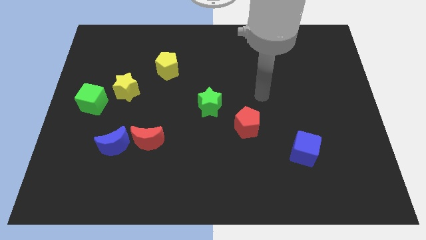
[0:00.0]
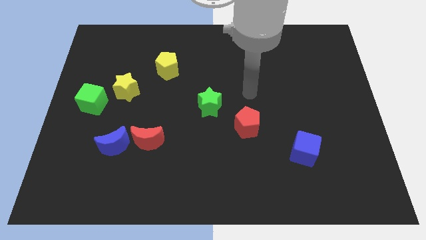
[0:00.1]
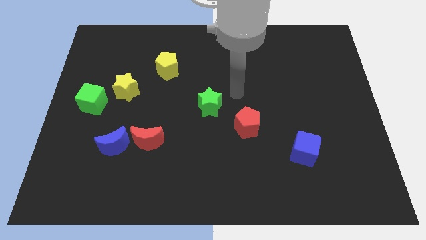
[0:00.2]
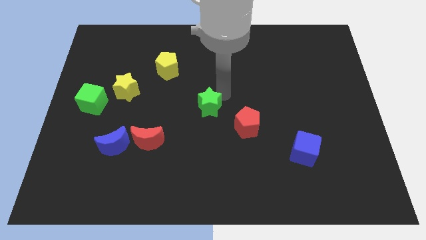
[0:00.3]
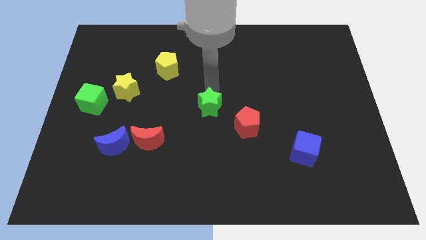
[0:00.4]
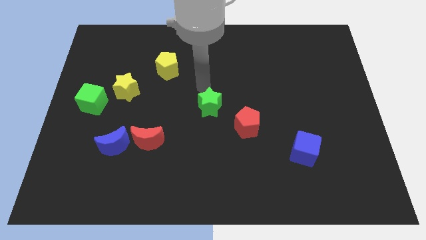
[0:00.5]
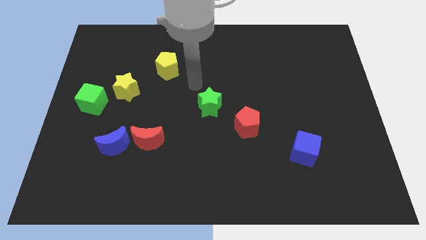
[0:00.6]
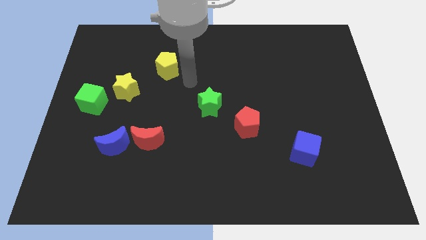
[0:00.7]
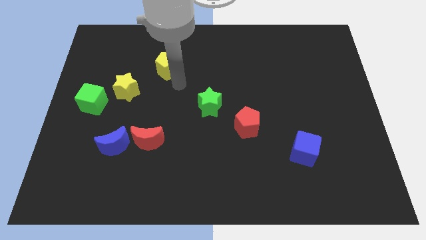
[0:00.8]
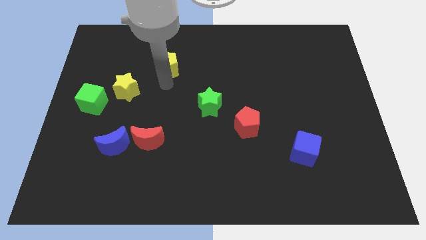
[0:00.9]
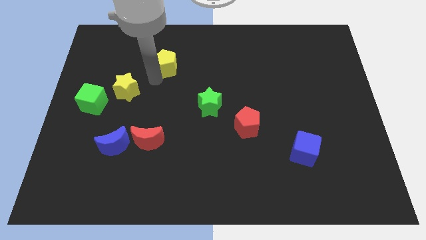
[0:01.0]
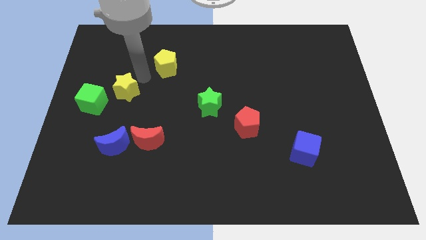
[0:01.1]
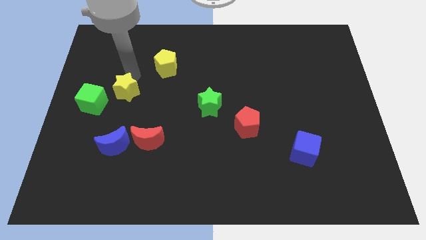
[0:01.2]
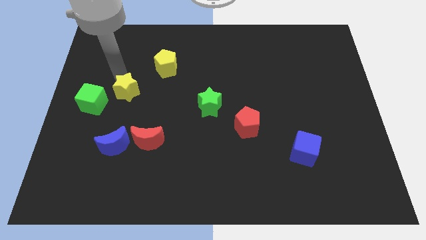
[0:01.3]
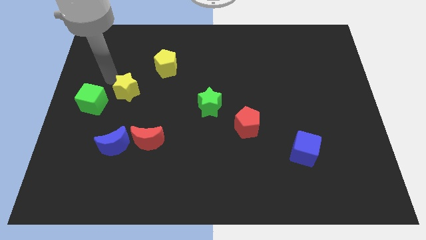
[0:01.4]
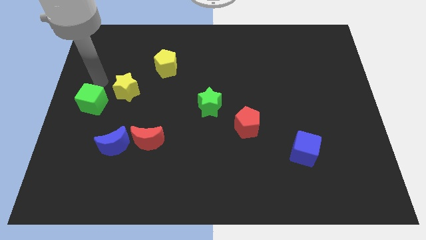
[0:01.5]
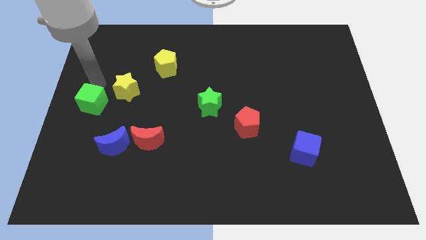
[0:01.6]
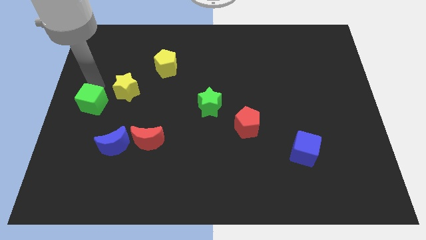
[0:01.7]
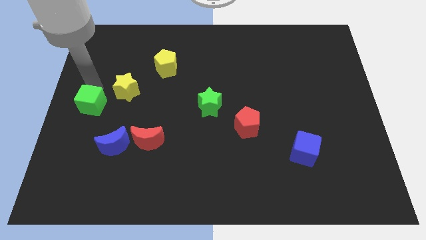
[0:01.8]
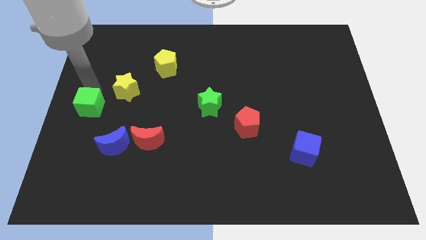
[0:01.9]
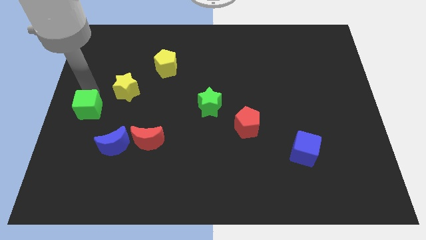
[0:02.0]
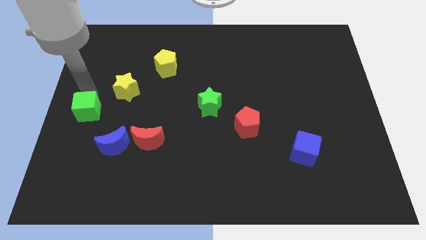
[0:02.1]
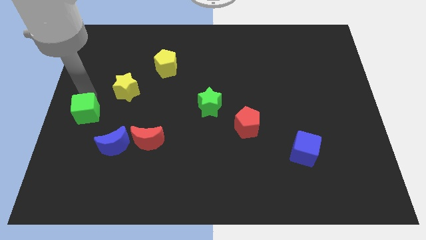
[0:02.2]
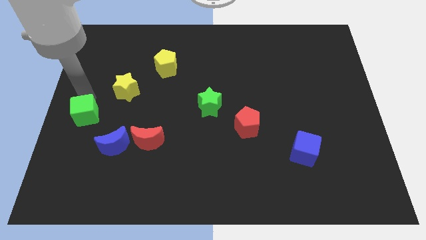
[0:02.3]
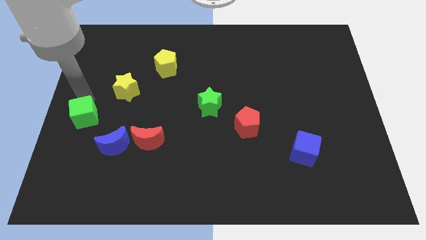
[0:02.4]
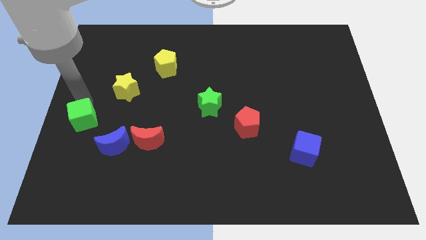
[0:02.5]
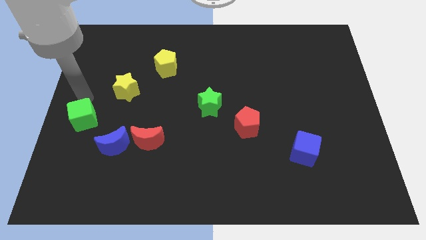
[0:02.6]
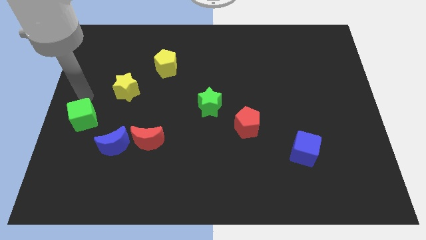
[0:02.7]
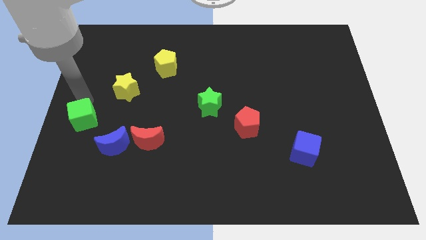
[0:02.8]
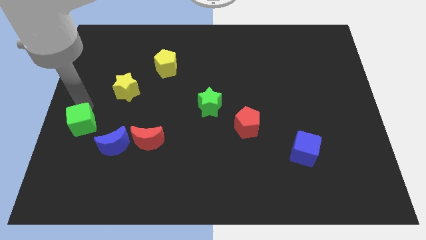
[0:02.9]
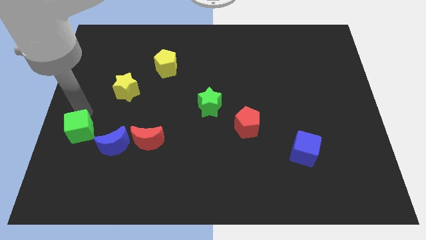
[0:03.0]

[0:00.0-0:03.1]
slightly slide the green cube downwards

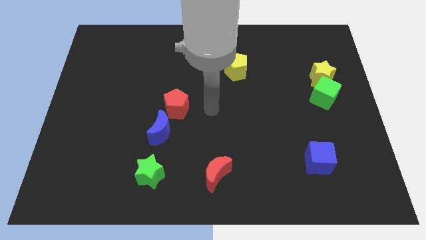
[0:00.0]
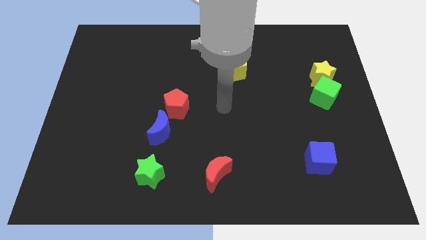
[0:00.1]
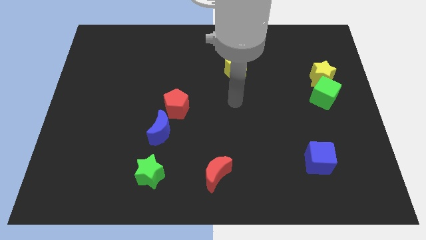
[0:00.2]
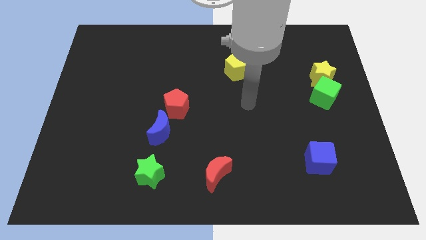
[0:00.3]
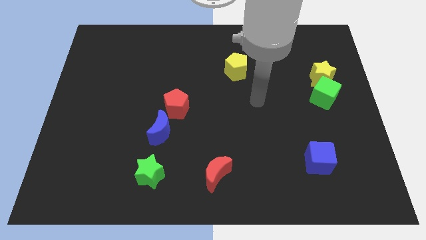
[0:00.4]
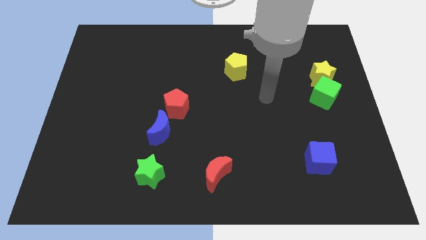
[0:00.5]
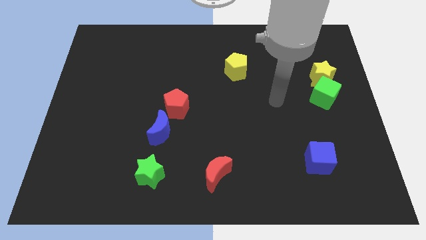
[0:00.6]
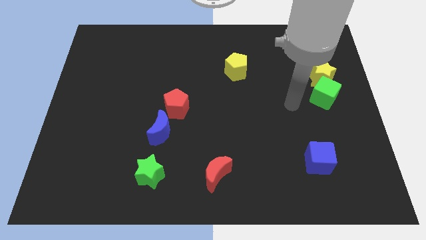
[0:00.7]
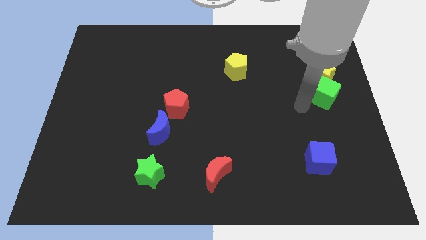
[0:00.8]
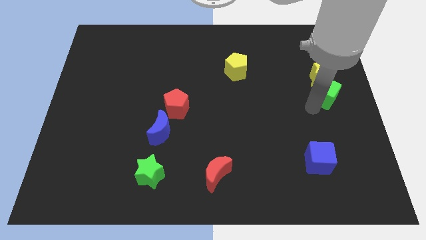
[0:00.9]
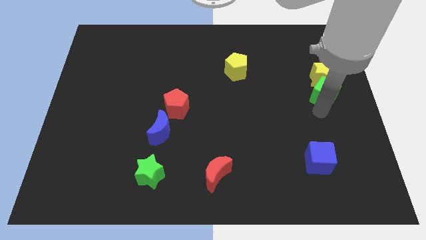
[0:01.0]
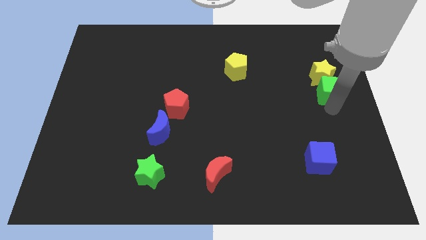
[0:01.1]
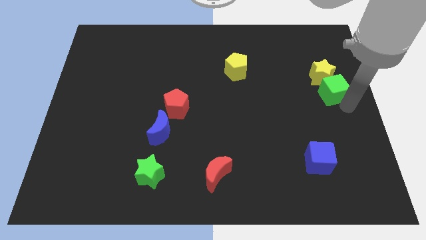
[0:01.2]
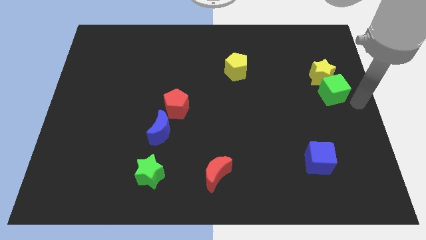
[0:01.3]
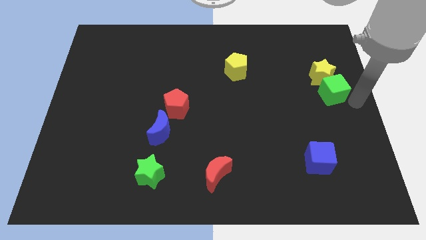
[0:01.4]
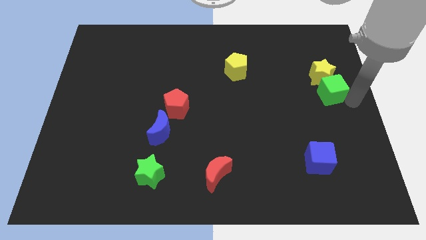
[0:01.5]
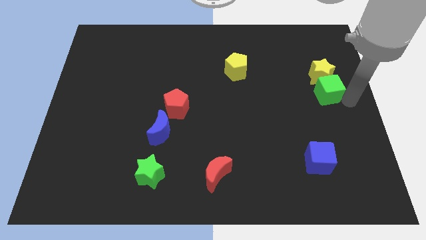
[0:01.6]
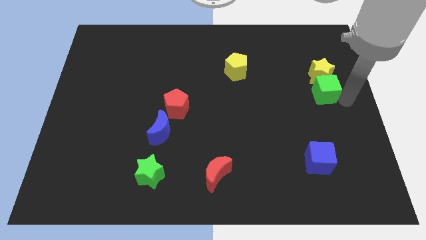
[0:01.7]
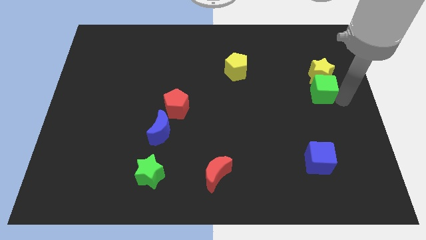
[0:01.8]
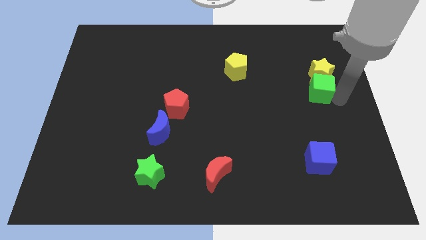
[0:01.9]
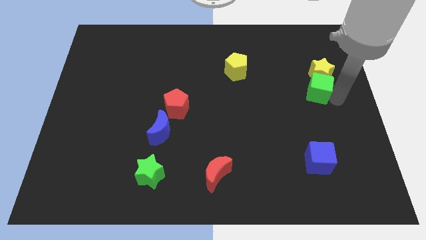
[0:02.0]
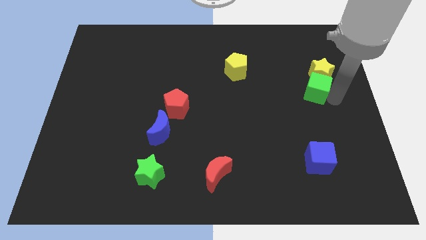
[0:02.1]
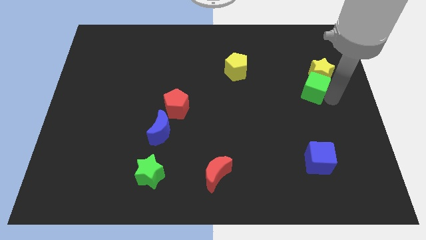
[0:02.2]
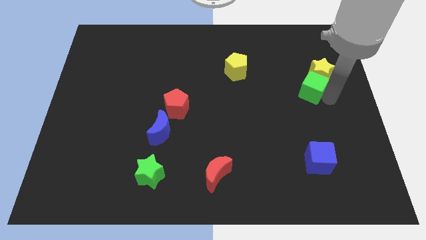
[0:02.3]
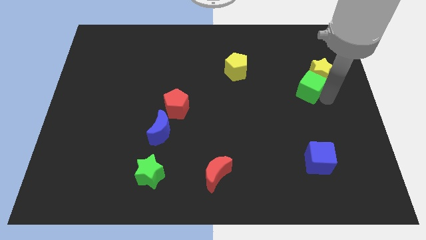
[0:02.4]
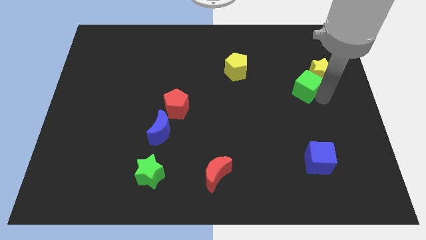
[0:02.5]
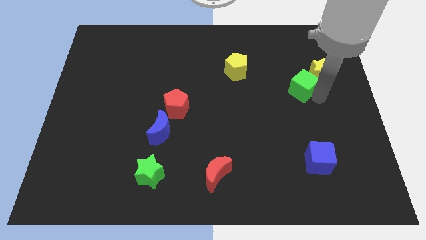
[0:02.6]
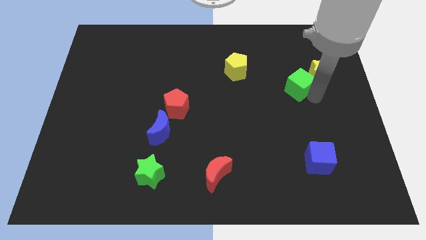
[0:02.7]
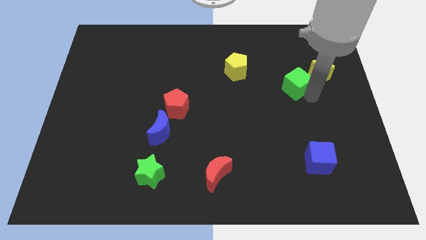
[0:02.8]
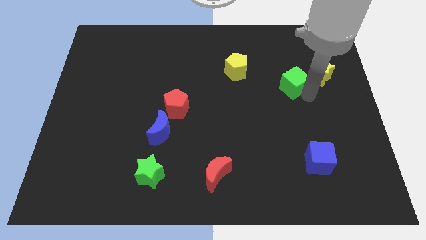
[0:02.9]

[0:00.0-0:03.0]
slide the green cube somewhat upwards and left

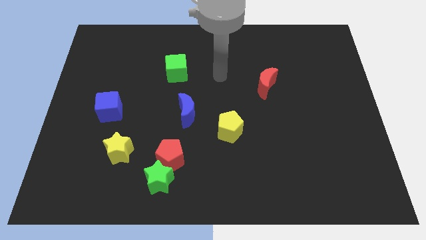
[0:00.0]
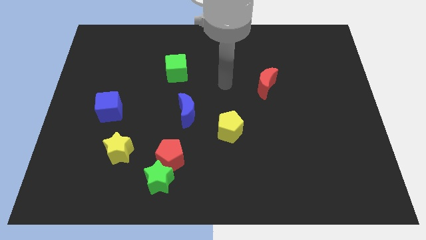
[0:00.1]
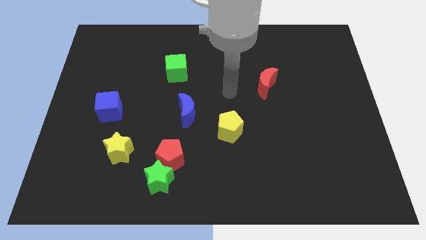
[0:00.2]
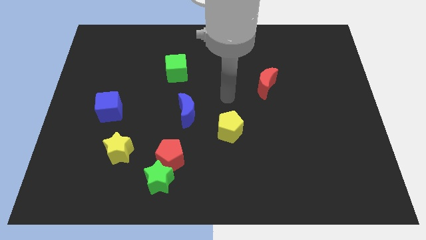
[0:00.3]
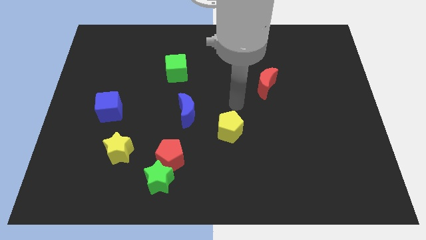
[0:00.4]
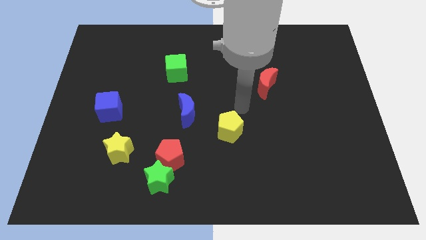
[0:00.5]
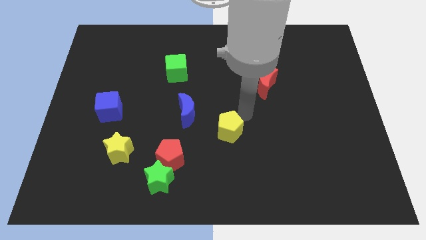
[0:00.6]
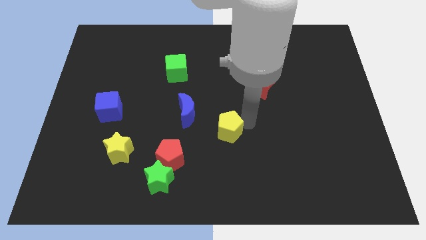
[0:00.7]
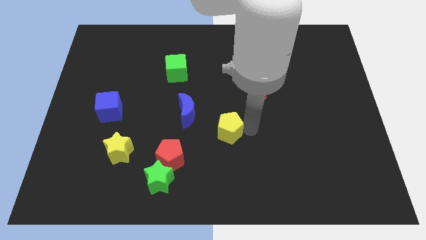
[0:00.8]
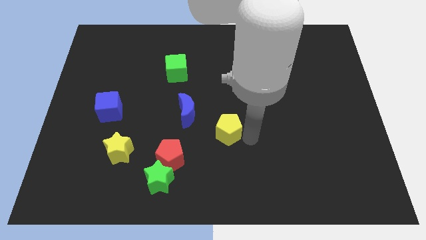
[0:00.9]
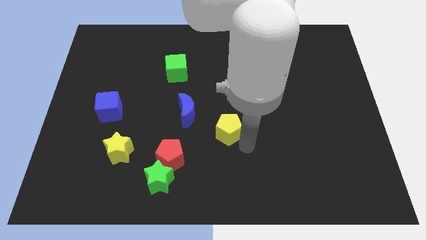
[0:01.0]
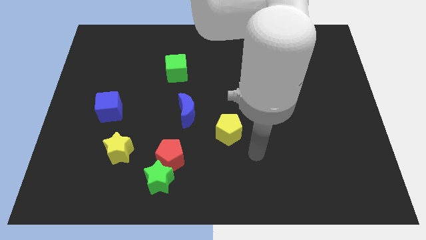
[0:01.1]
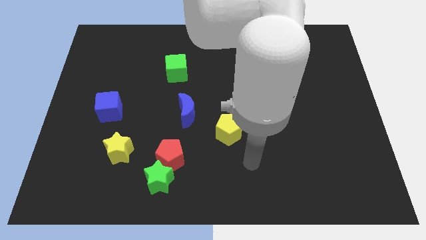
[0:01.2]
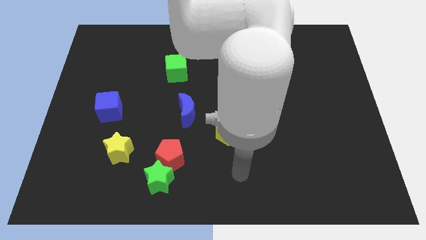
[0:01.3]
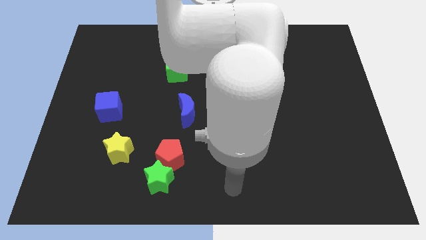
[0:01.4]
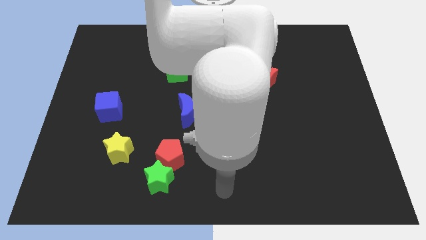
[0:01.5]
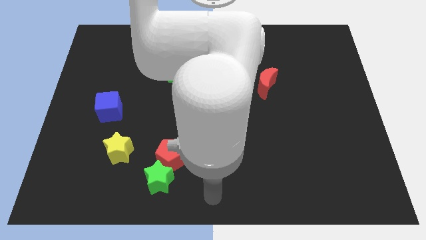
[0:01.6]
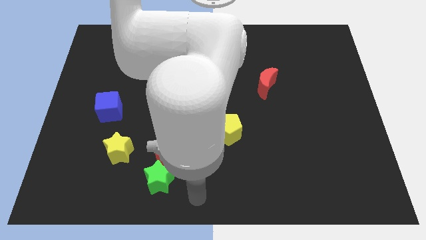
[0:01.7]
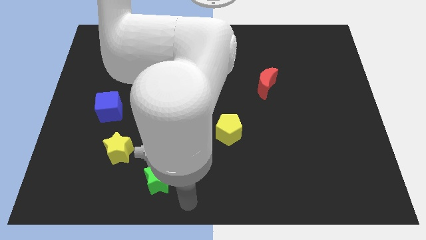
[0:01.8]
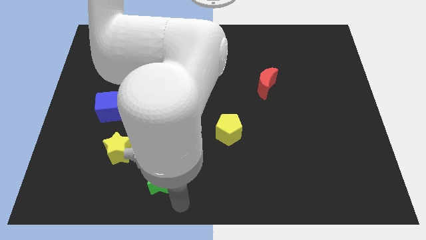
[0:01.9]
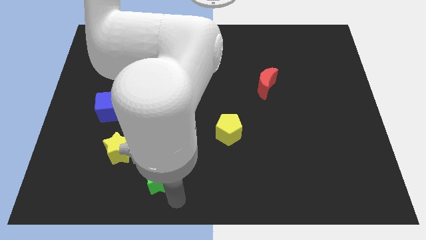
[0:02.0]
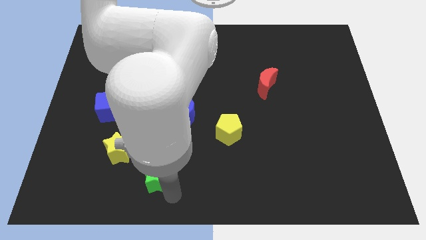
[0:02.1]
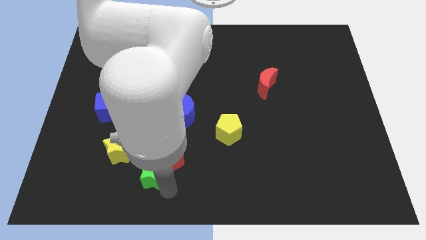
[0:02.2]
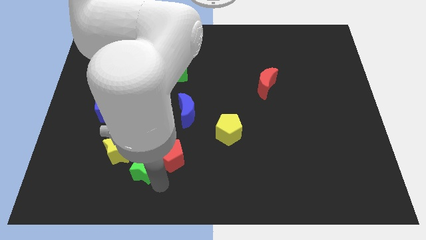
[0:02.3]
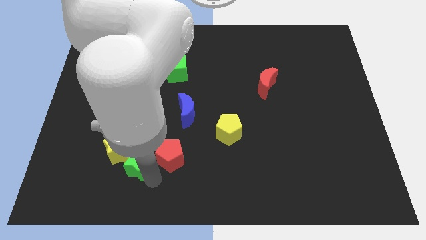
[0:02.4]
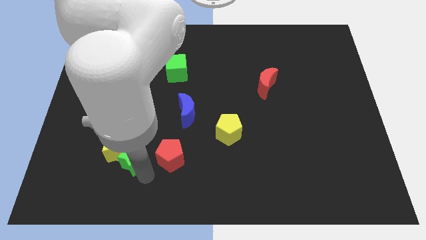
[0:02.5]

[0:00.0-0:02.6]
slightly move the green star up and to the left diagonally
